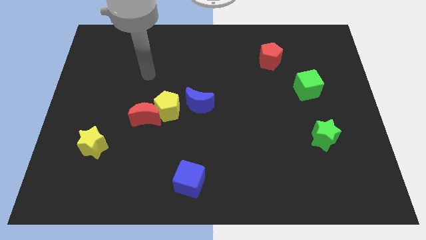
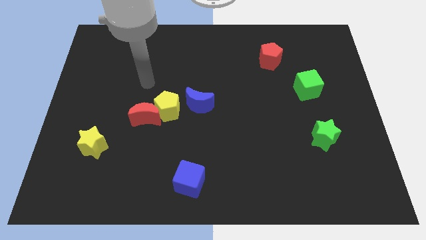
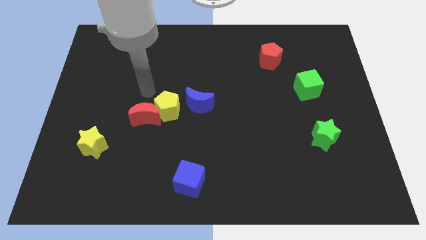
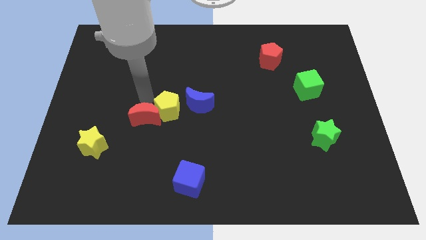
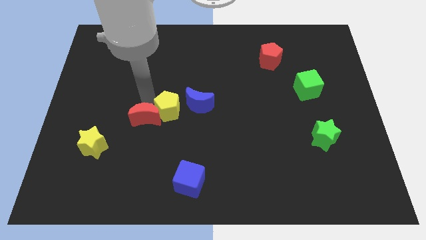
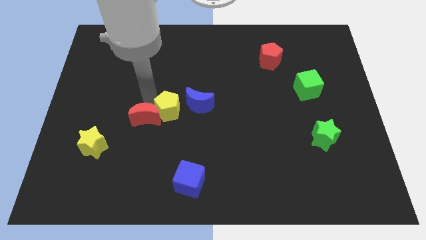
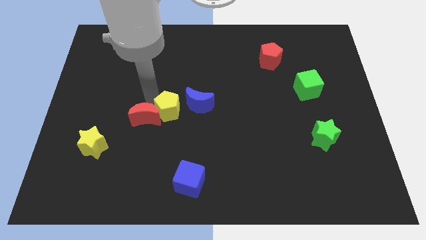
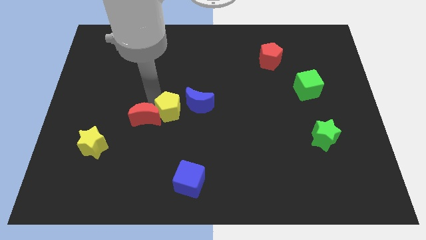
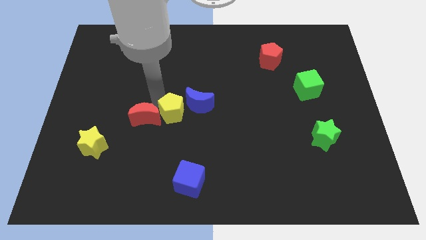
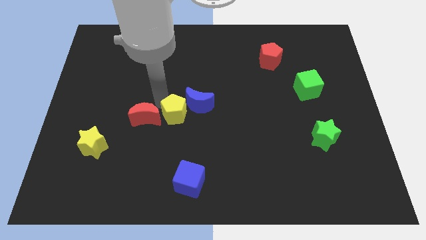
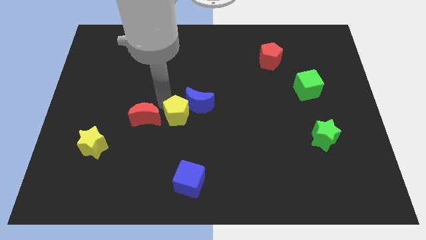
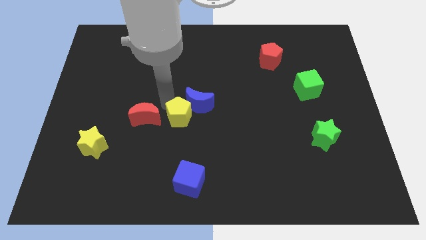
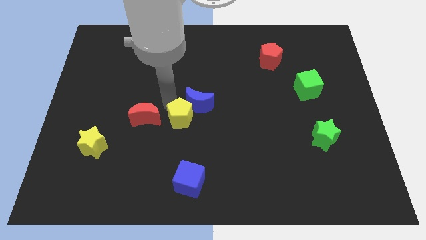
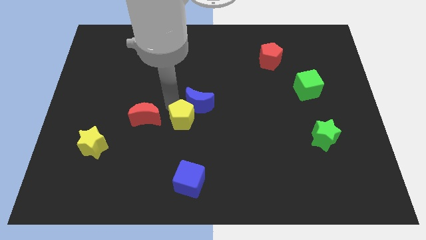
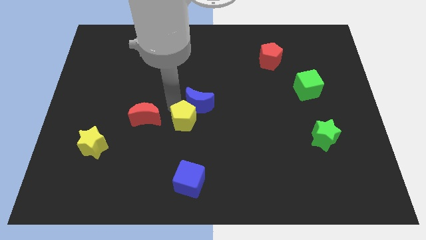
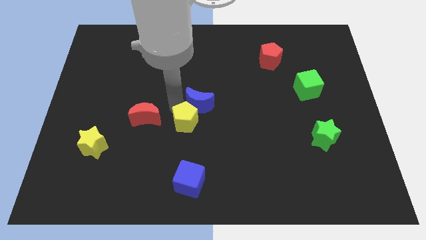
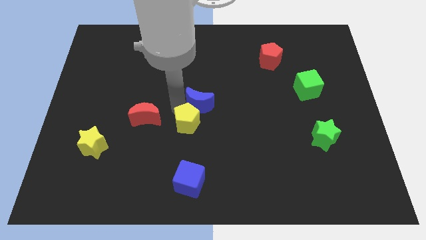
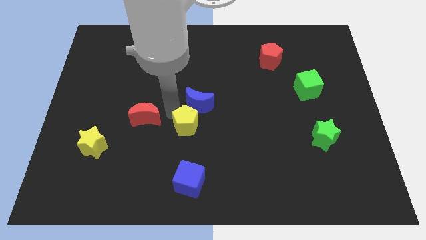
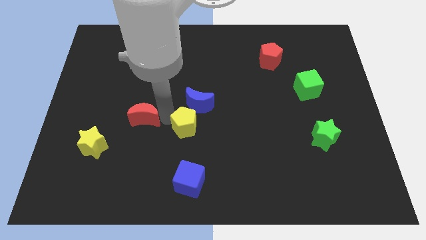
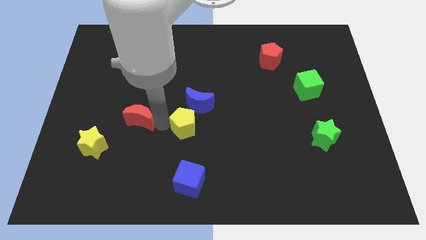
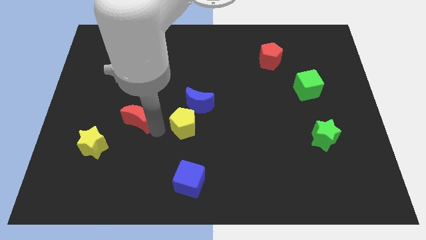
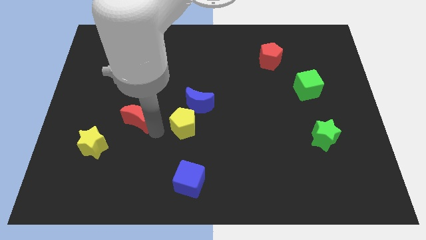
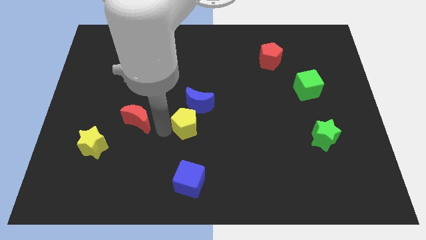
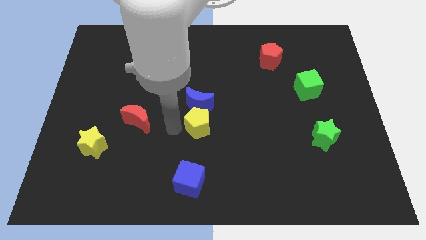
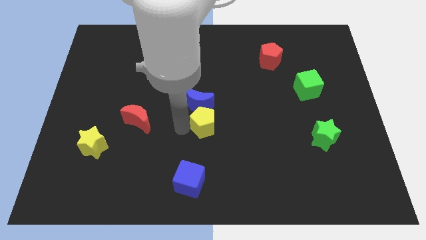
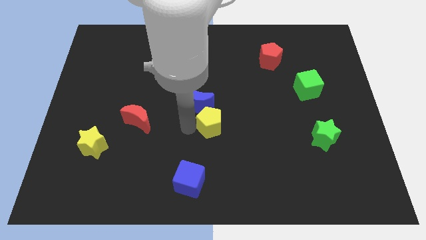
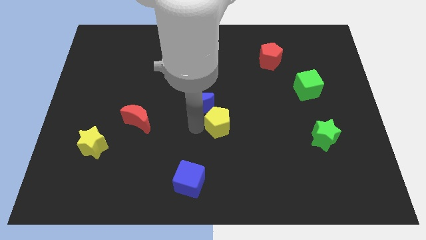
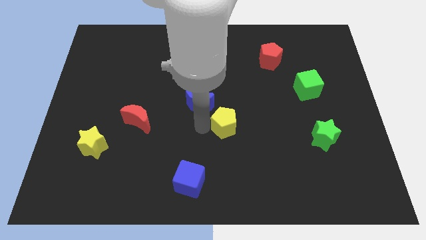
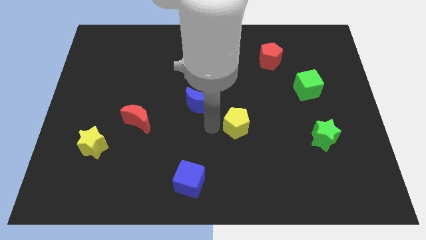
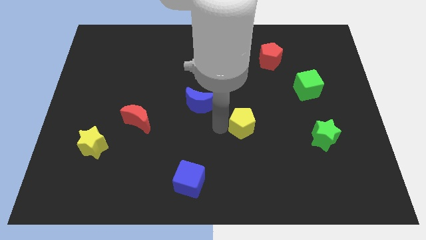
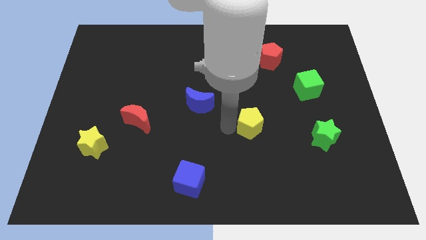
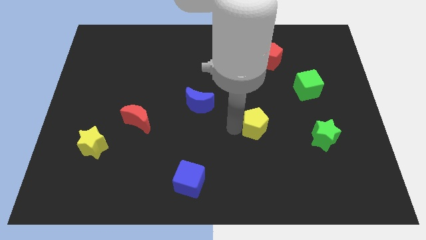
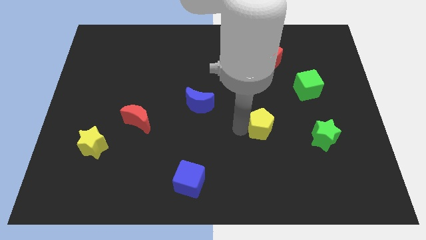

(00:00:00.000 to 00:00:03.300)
slide the yellow pentagon to the right

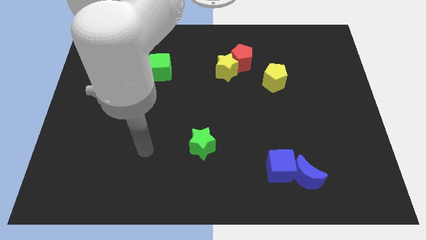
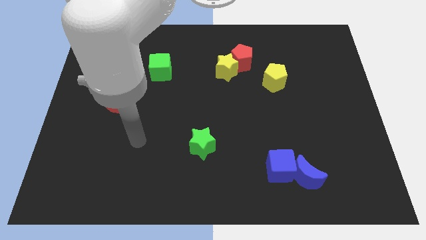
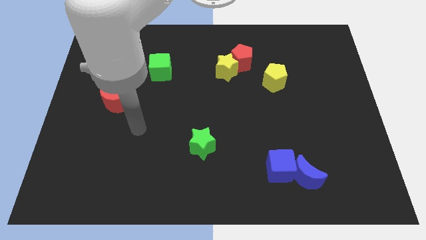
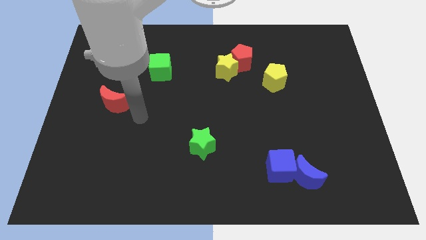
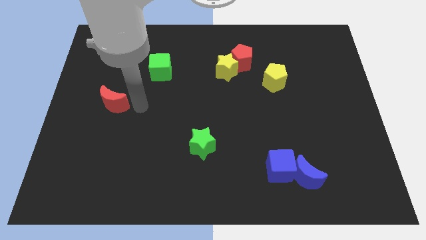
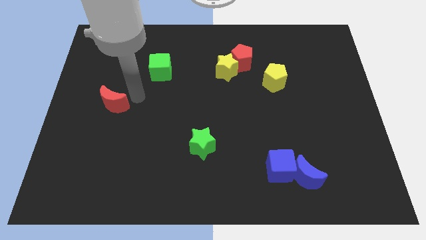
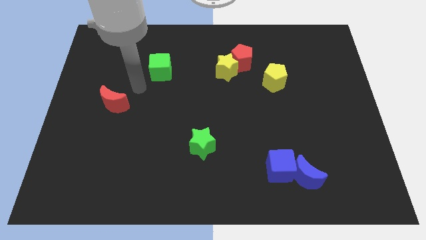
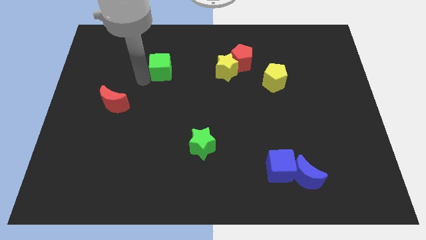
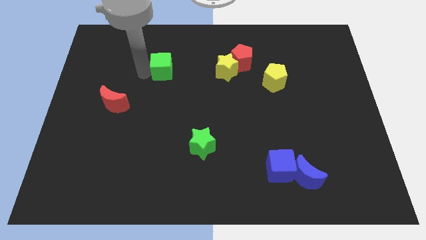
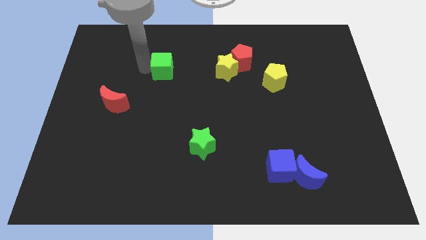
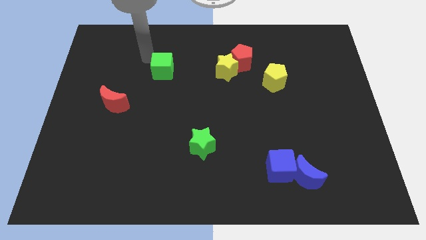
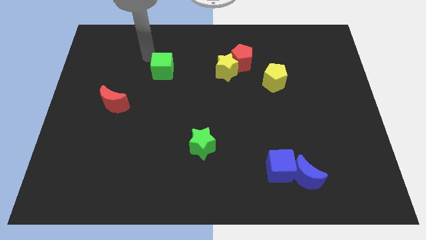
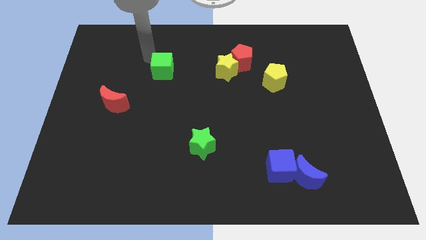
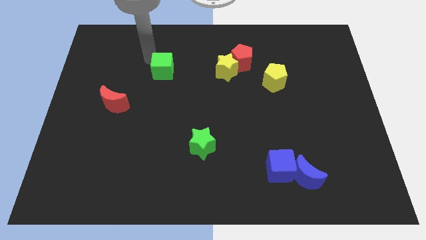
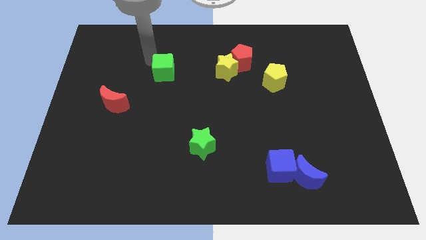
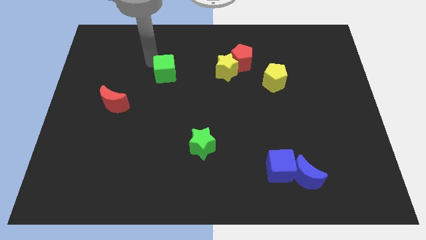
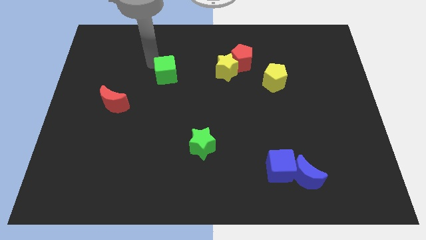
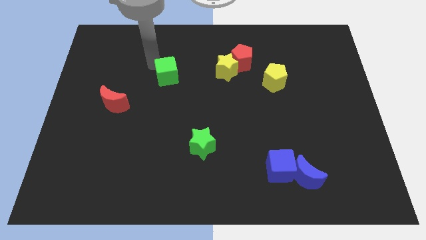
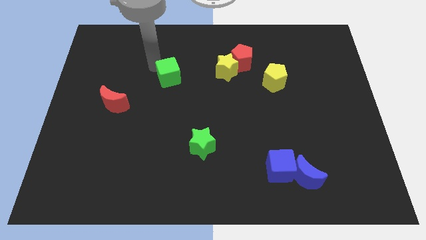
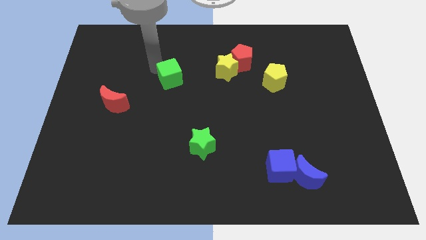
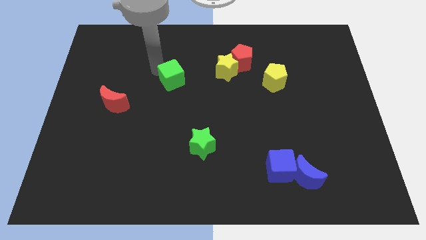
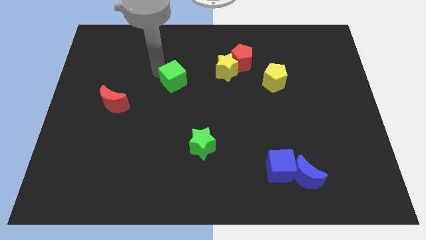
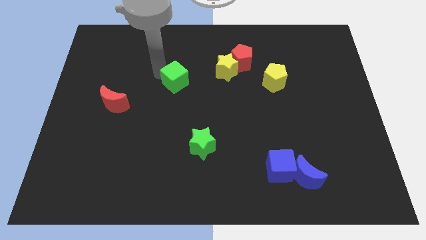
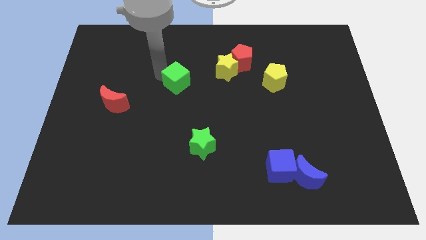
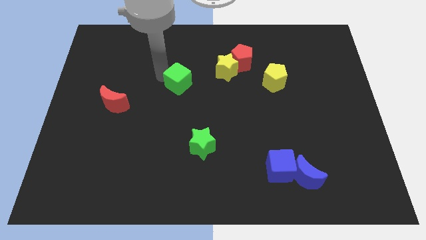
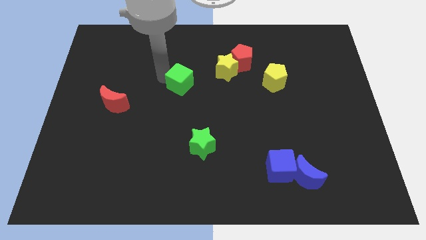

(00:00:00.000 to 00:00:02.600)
slide the green cube down and then right slightly

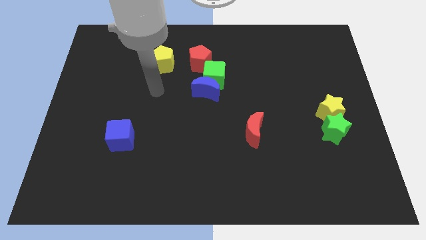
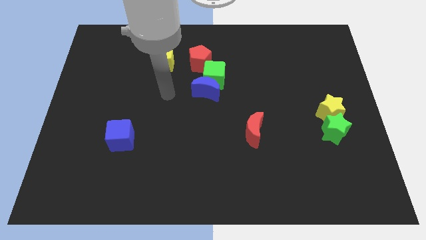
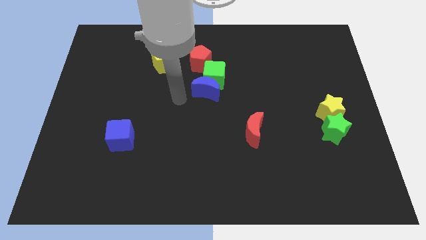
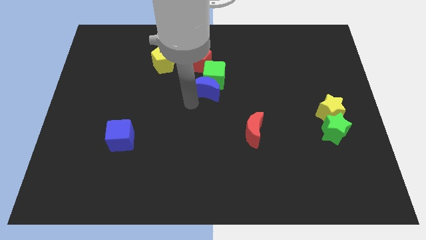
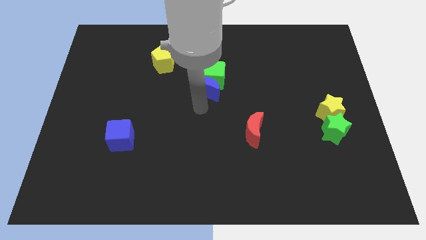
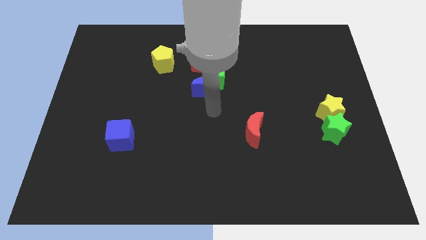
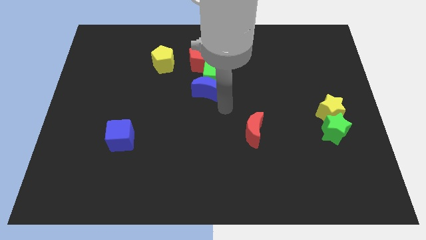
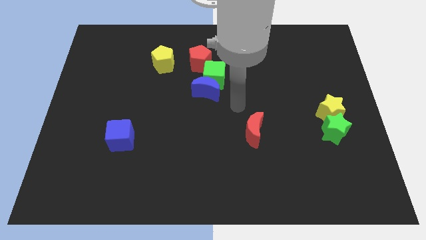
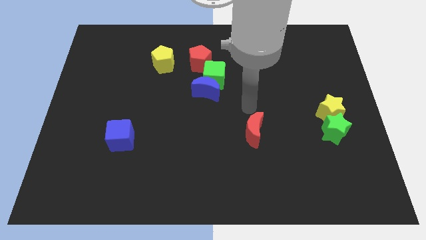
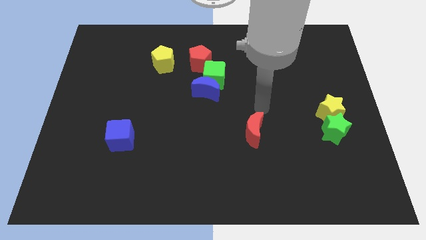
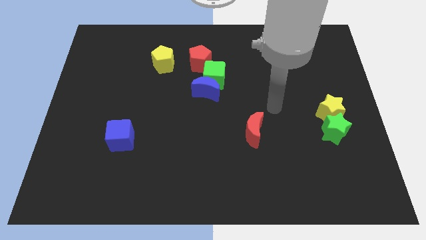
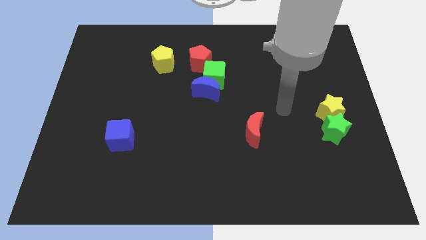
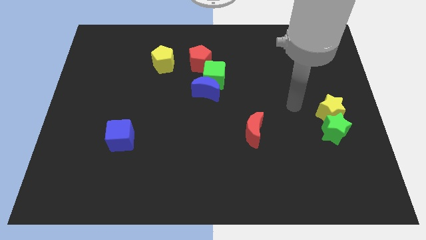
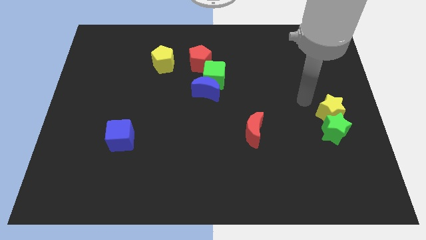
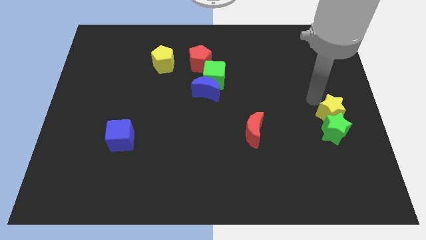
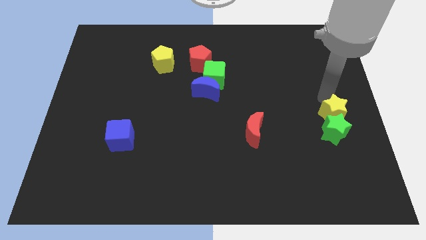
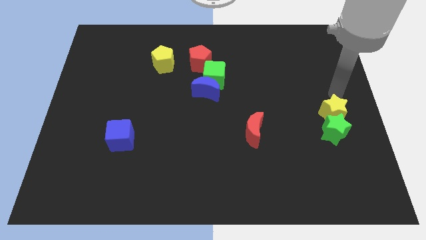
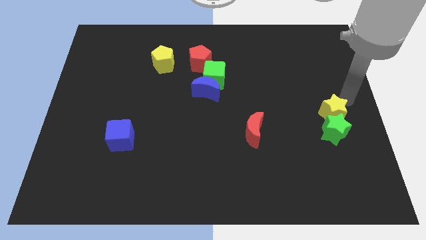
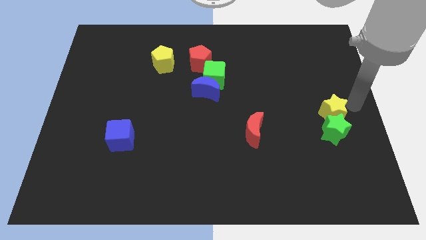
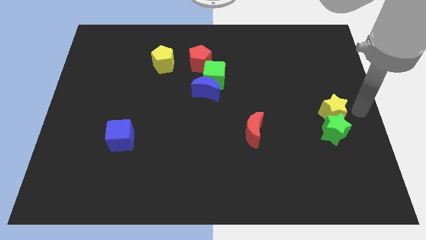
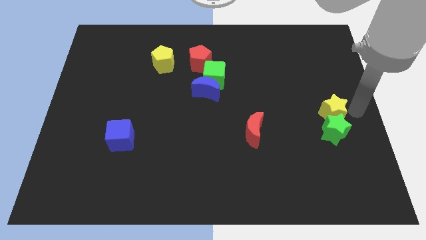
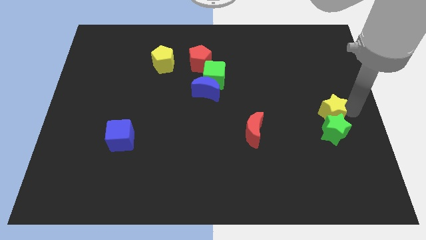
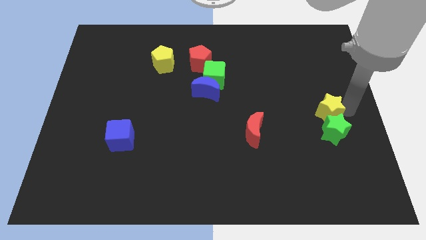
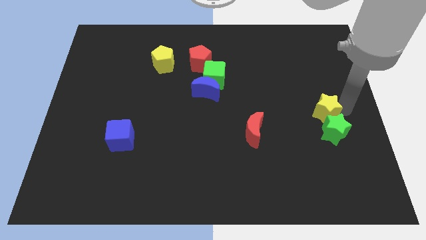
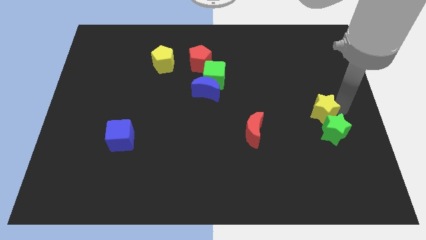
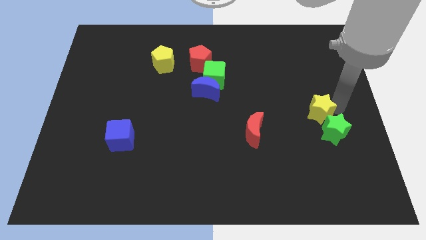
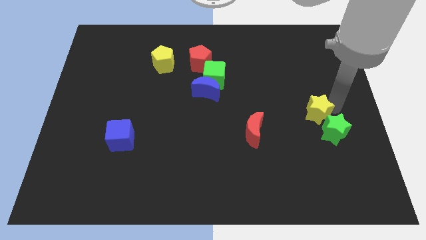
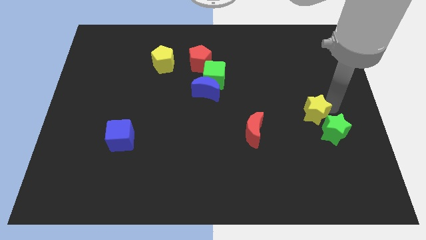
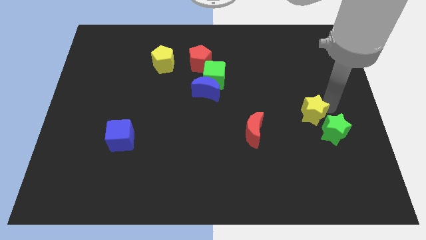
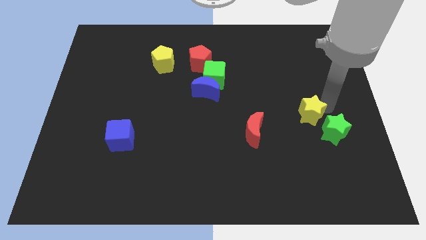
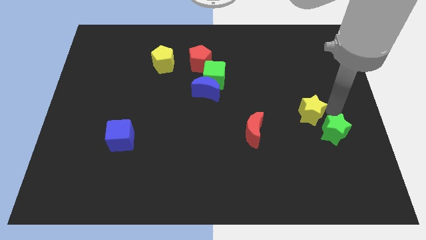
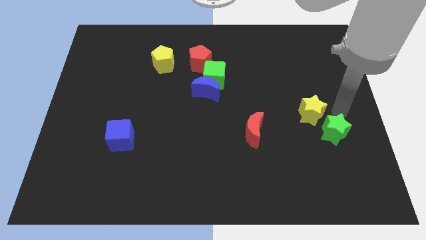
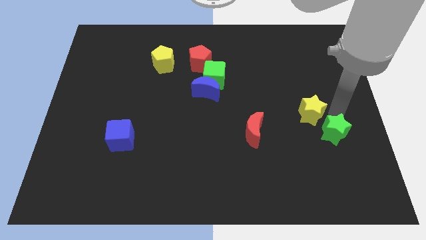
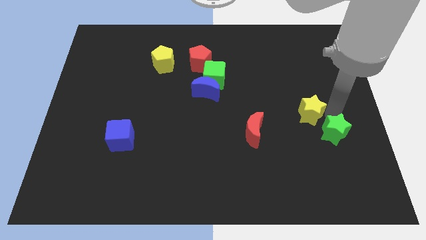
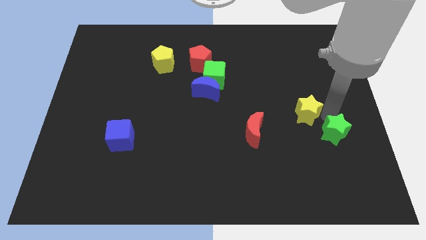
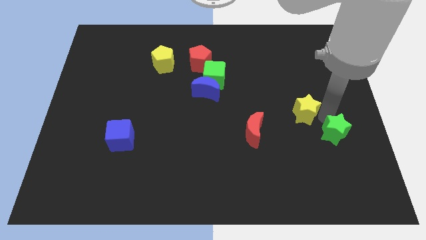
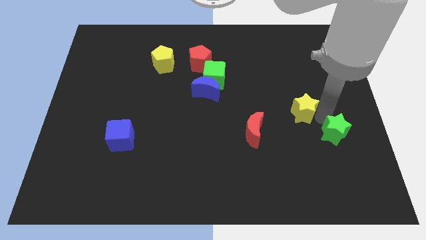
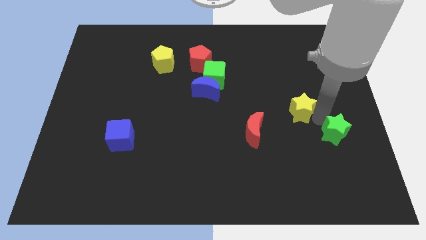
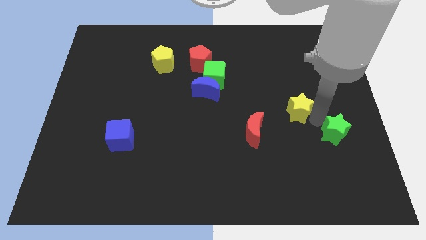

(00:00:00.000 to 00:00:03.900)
slightly push the yellow star left
